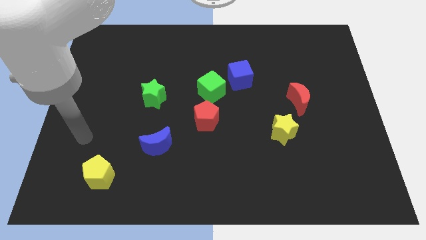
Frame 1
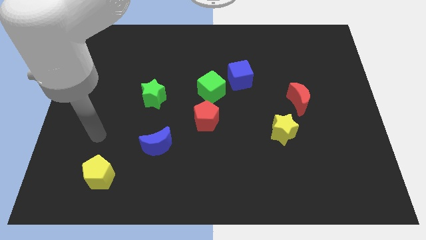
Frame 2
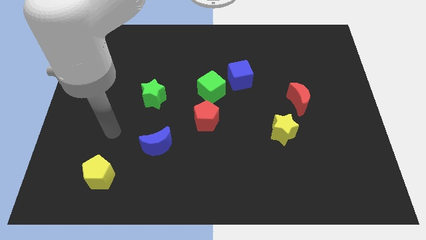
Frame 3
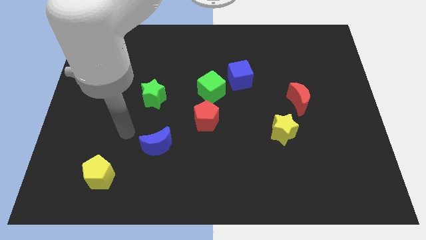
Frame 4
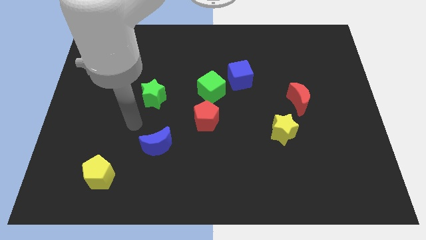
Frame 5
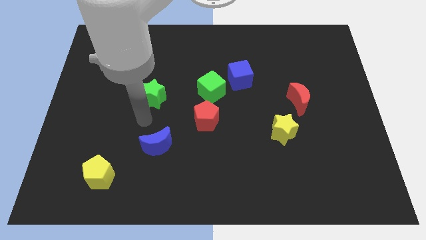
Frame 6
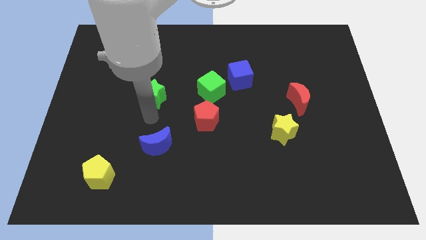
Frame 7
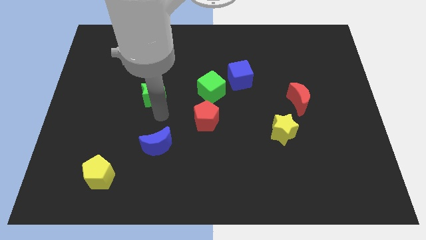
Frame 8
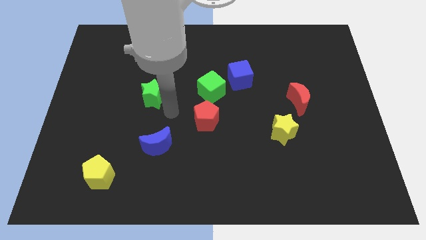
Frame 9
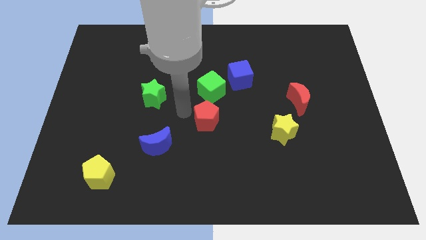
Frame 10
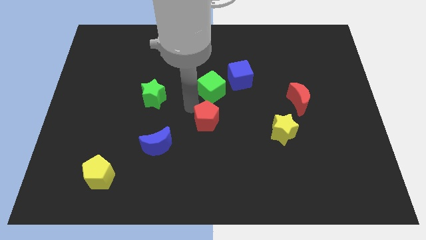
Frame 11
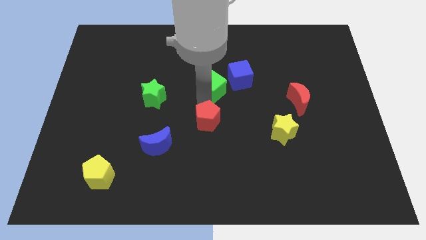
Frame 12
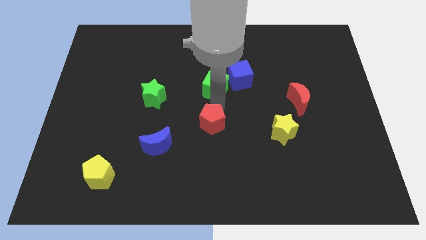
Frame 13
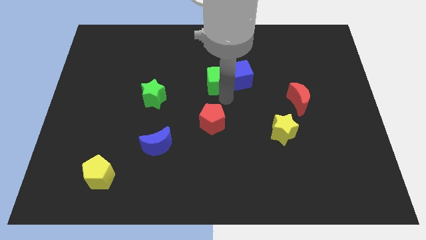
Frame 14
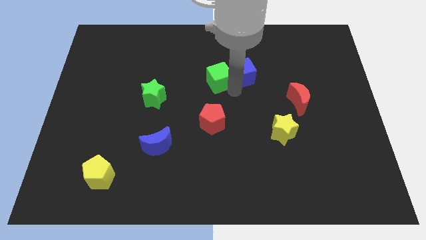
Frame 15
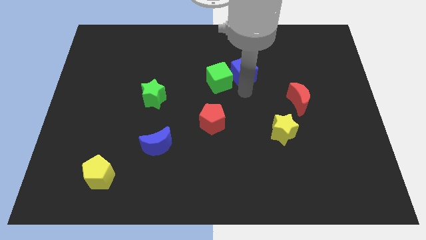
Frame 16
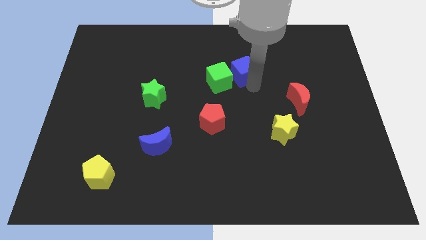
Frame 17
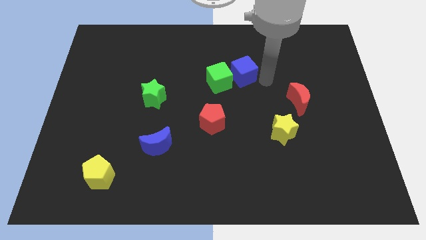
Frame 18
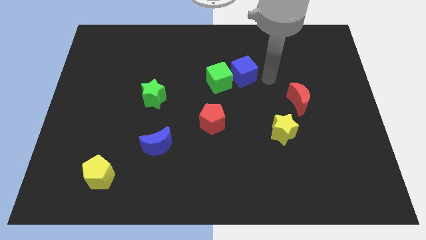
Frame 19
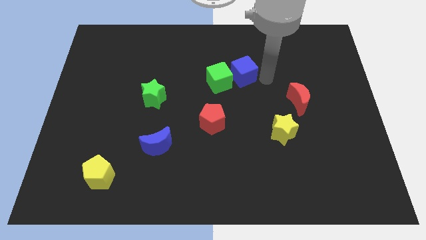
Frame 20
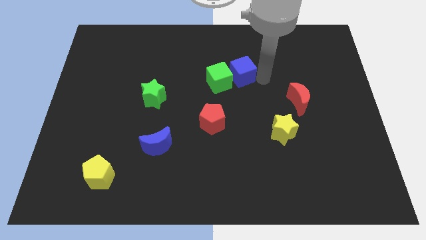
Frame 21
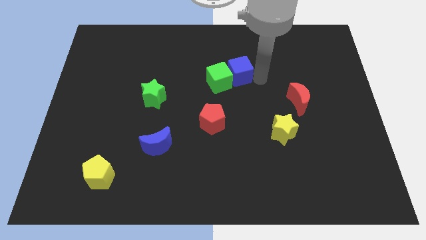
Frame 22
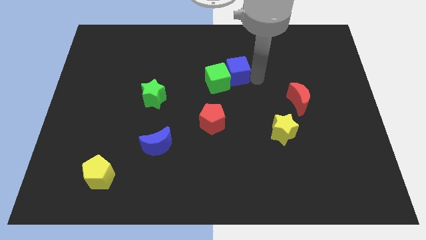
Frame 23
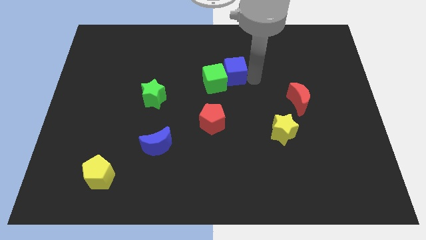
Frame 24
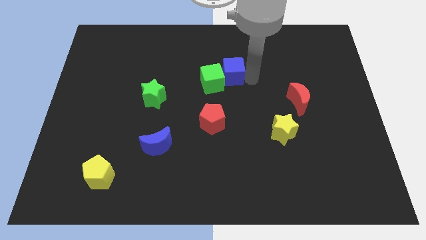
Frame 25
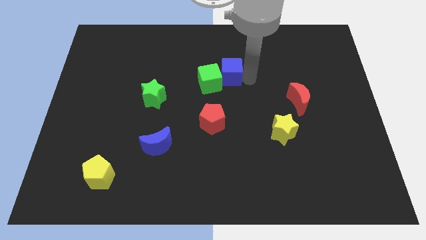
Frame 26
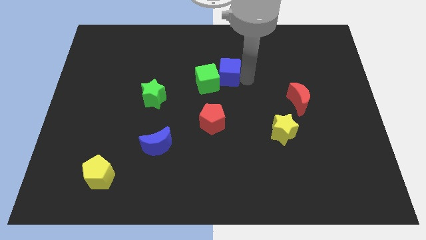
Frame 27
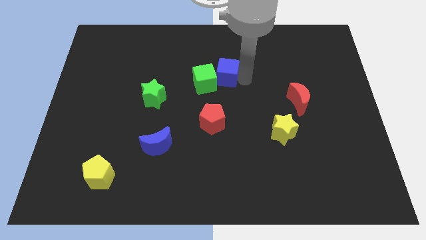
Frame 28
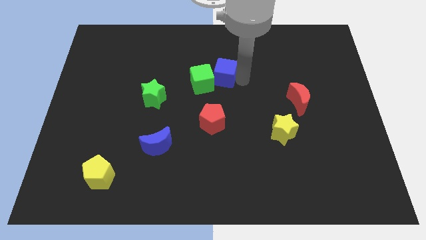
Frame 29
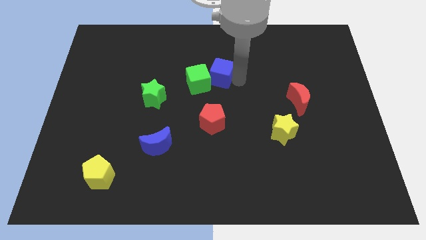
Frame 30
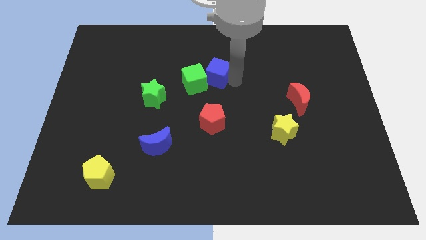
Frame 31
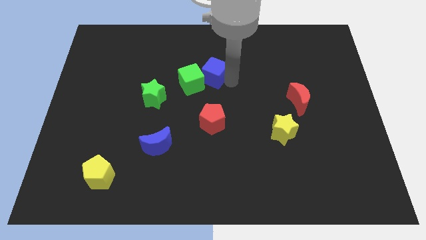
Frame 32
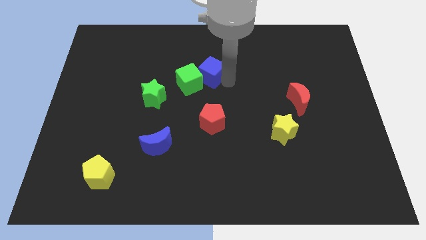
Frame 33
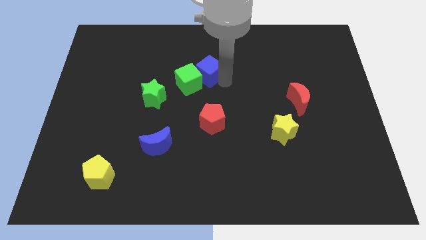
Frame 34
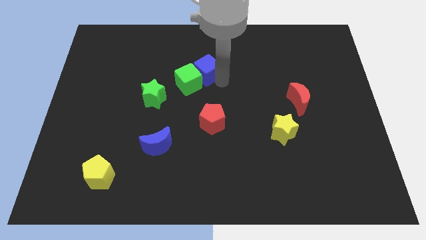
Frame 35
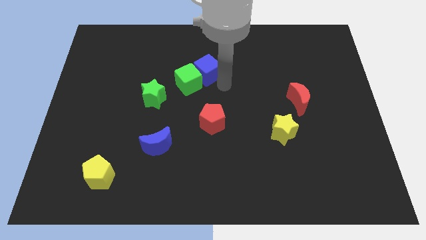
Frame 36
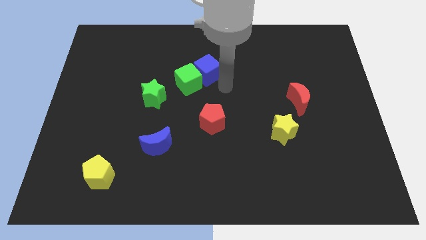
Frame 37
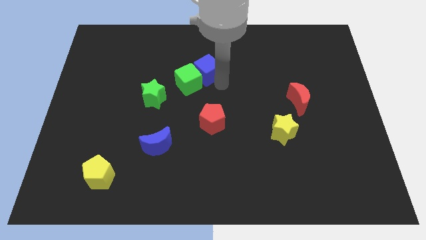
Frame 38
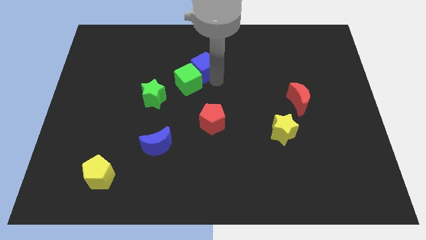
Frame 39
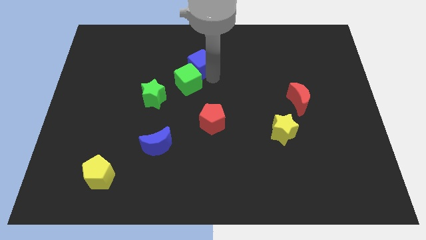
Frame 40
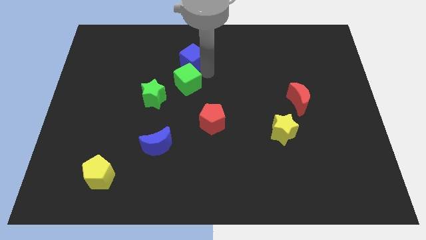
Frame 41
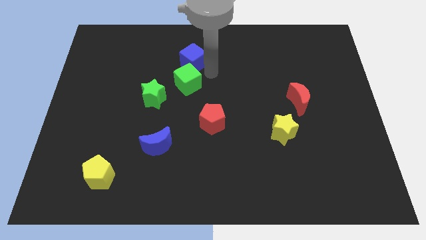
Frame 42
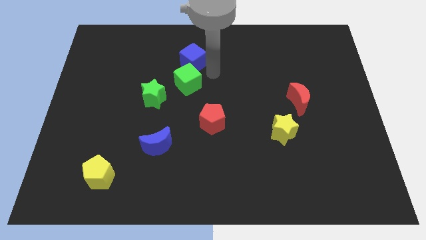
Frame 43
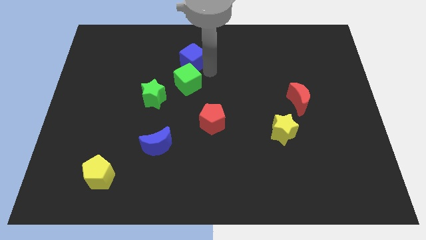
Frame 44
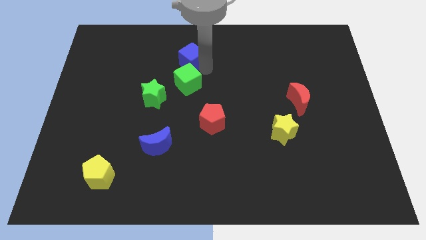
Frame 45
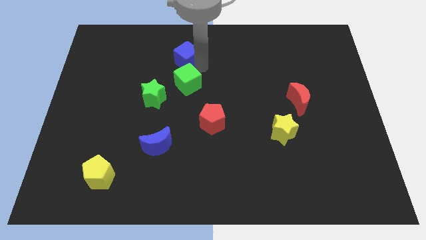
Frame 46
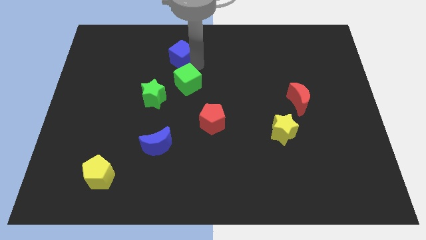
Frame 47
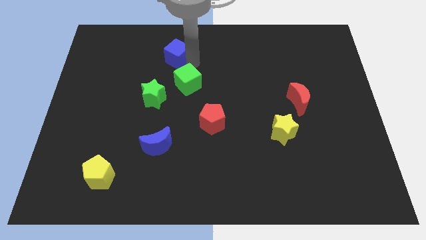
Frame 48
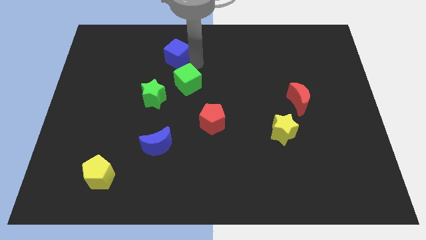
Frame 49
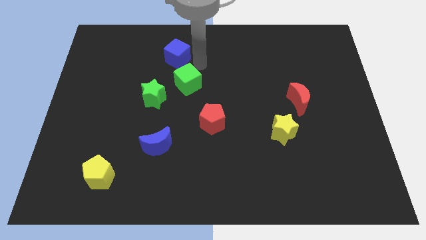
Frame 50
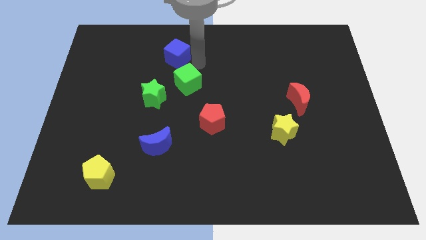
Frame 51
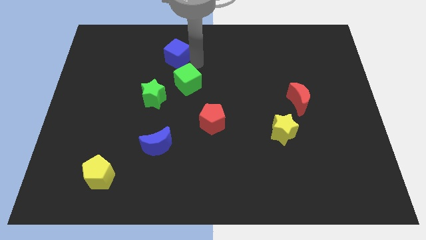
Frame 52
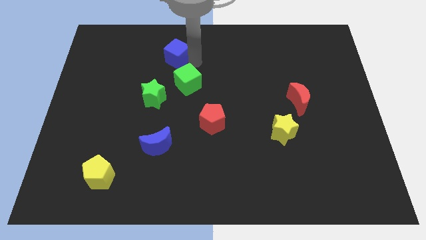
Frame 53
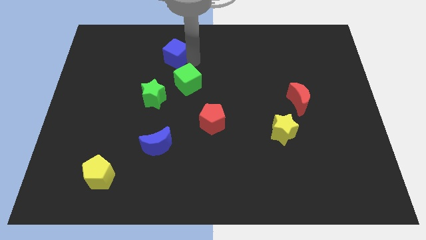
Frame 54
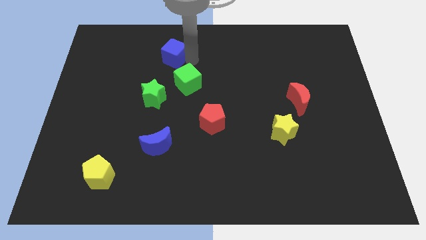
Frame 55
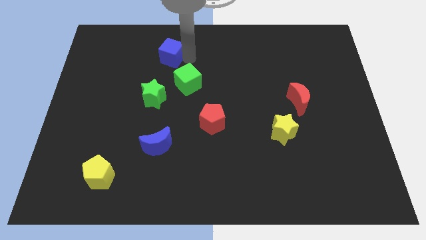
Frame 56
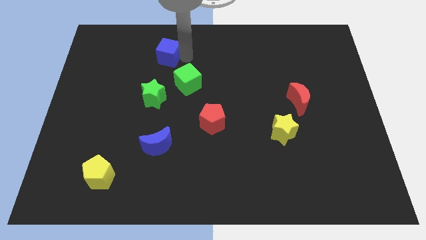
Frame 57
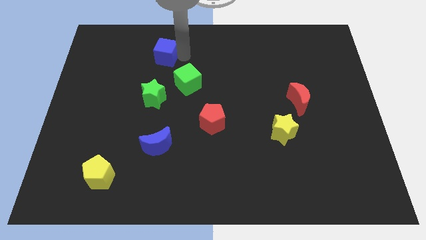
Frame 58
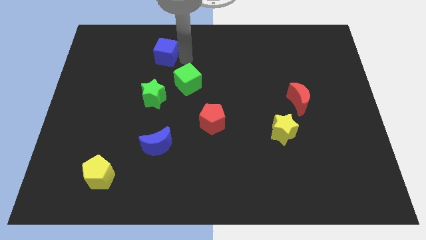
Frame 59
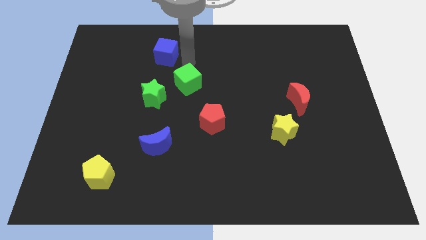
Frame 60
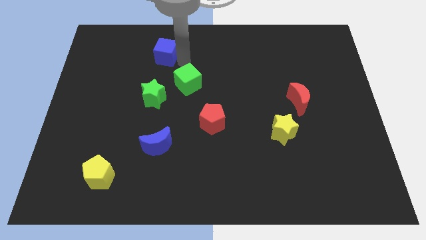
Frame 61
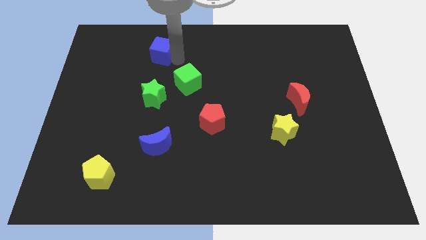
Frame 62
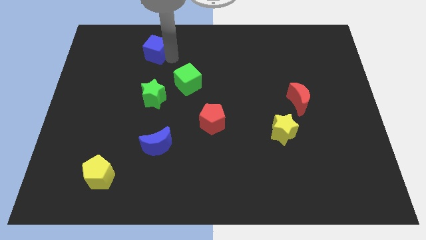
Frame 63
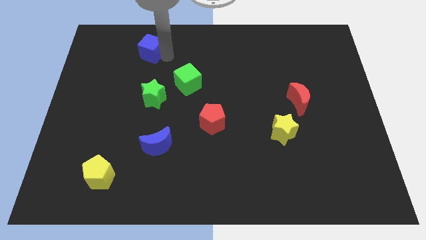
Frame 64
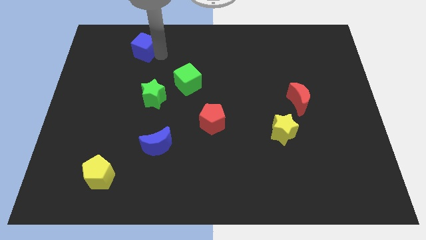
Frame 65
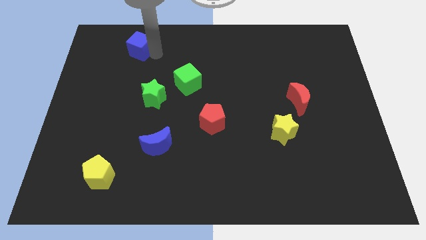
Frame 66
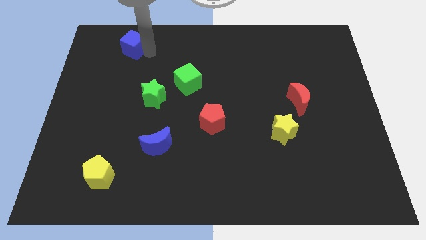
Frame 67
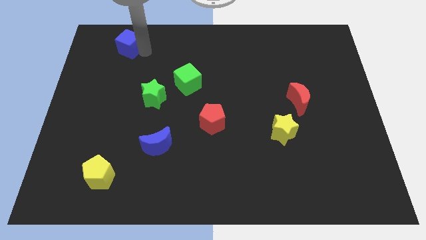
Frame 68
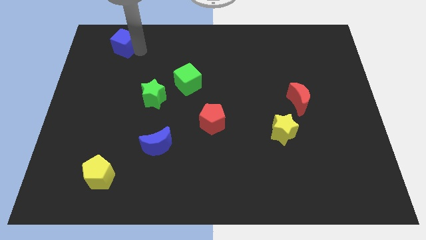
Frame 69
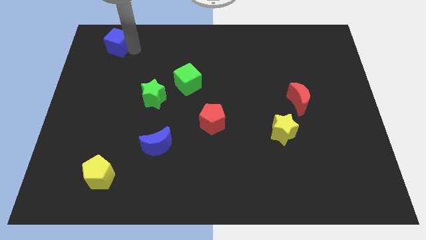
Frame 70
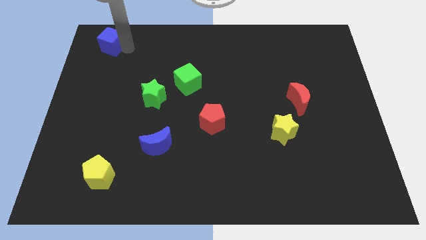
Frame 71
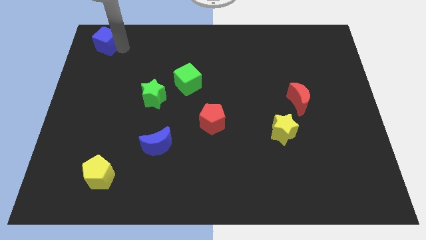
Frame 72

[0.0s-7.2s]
slide the blue cube to the top left corner
